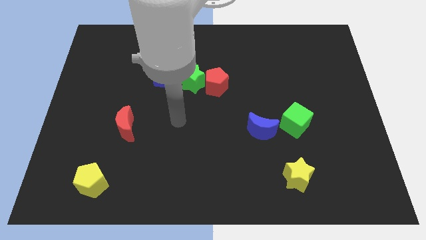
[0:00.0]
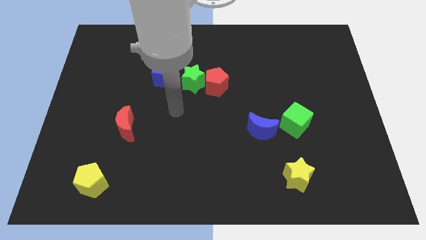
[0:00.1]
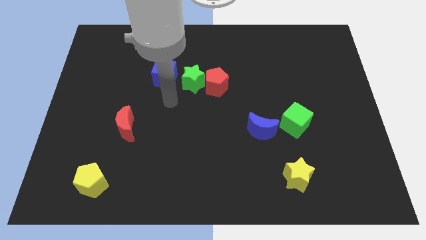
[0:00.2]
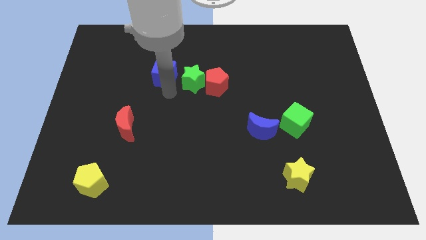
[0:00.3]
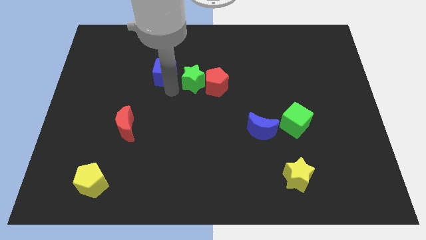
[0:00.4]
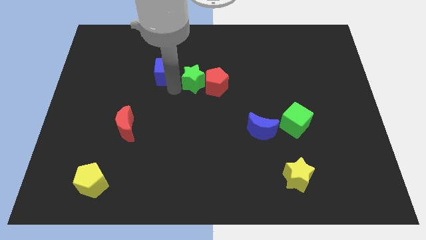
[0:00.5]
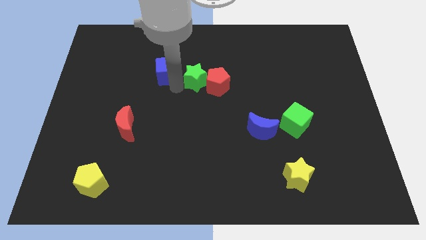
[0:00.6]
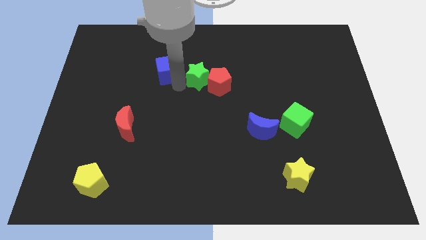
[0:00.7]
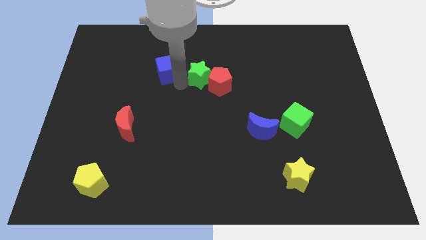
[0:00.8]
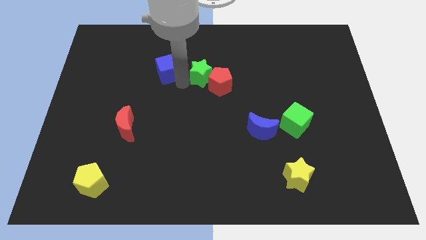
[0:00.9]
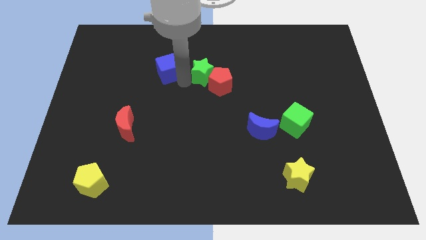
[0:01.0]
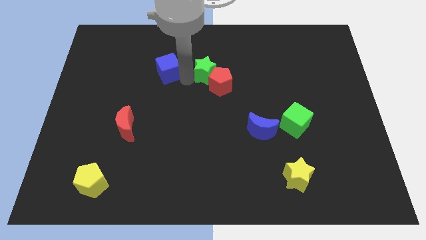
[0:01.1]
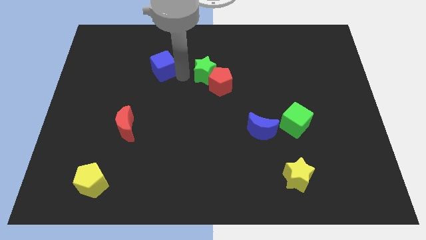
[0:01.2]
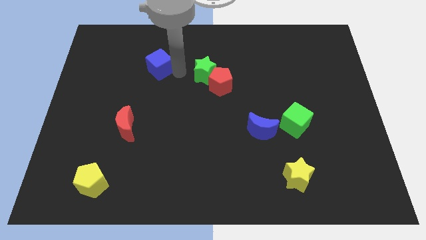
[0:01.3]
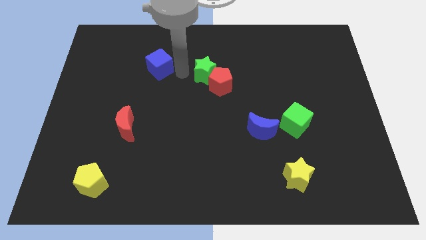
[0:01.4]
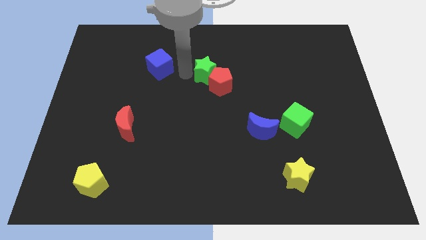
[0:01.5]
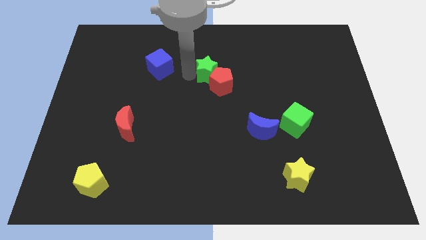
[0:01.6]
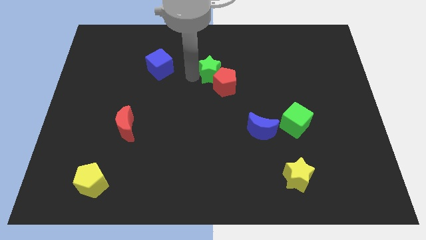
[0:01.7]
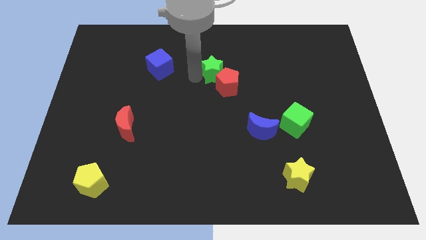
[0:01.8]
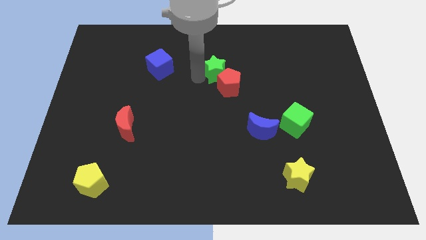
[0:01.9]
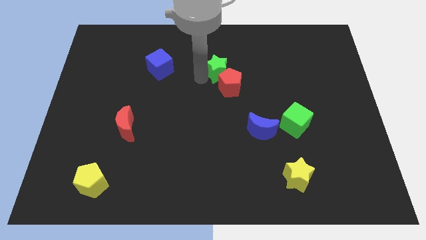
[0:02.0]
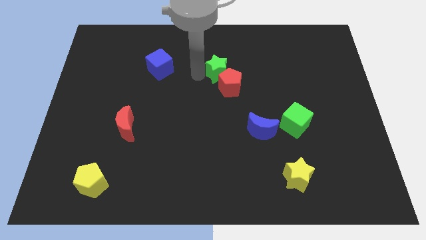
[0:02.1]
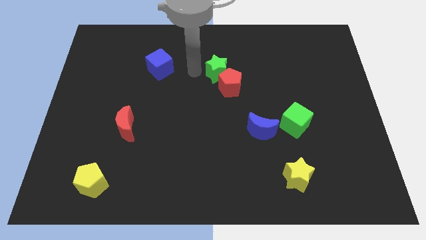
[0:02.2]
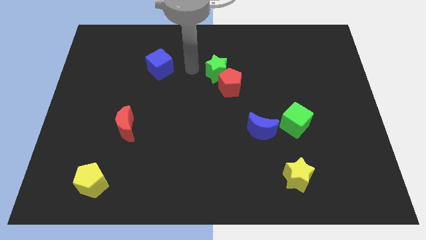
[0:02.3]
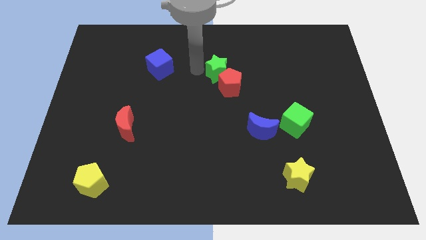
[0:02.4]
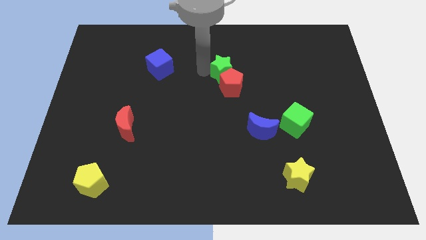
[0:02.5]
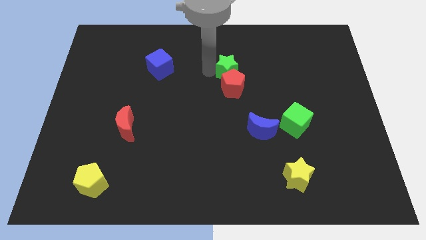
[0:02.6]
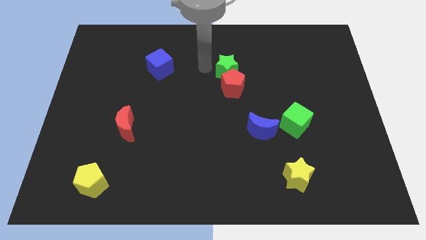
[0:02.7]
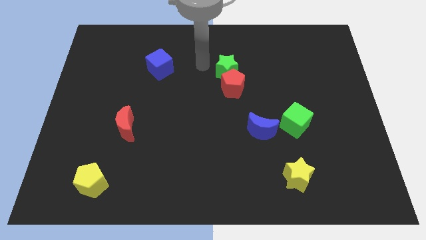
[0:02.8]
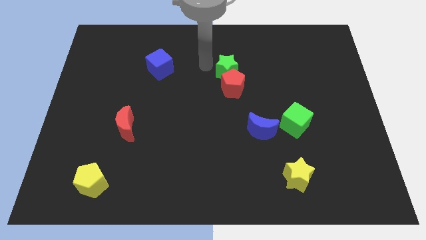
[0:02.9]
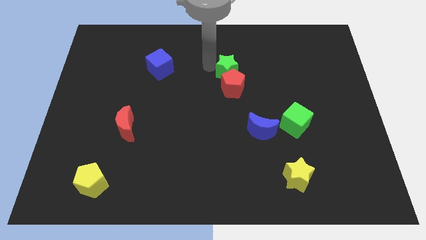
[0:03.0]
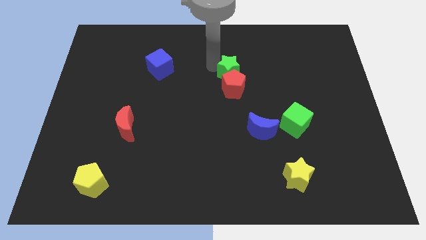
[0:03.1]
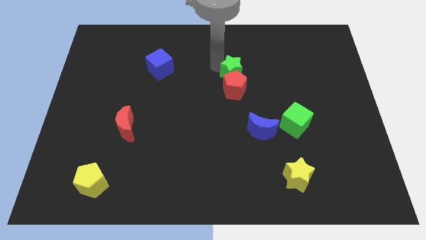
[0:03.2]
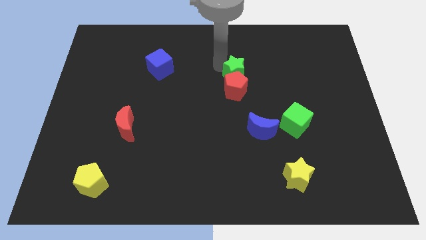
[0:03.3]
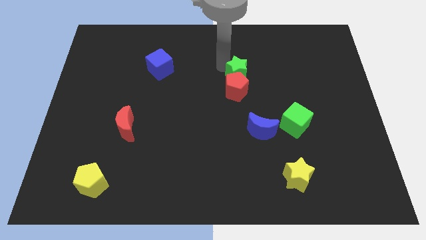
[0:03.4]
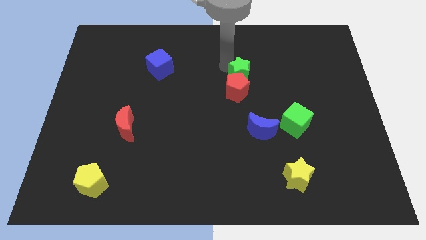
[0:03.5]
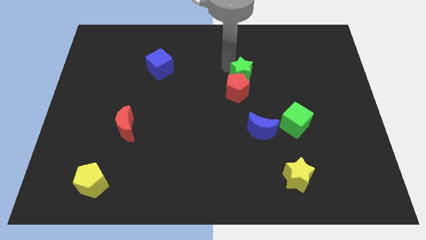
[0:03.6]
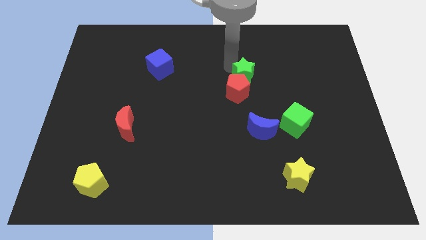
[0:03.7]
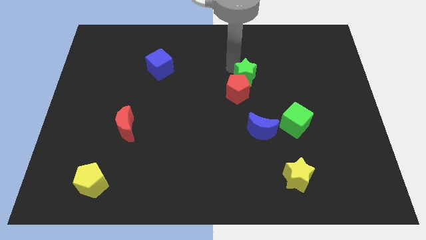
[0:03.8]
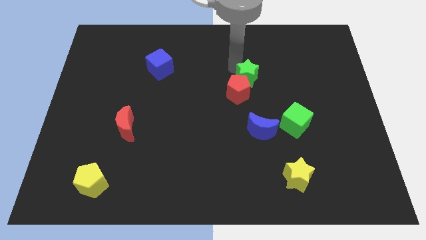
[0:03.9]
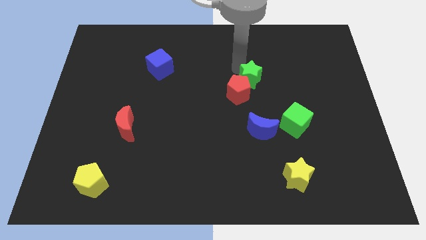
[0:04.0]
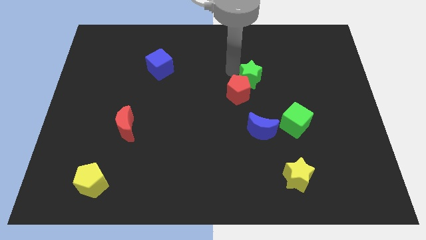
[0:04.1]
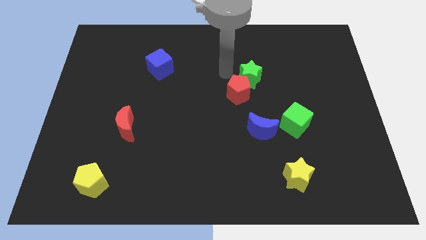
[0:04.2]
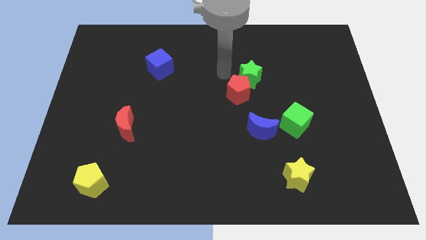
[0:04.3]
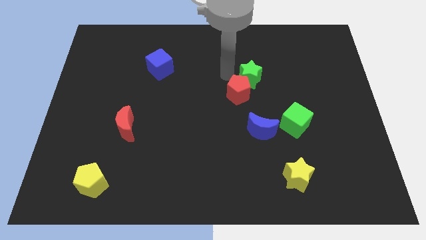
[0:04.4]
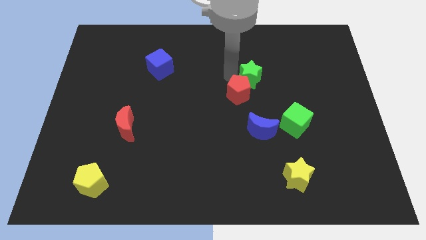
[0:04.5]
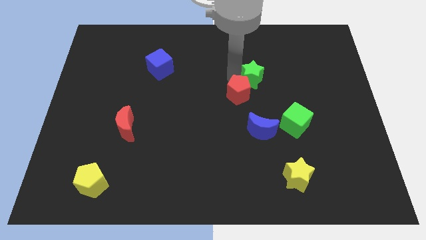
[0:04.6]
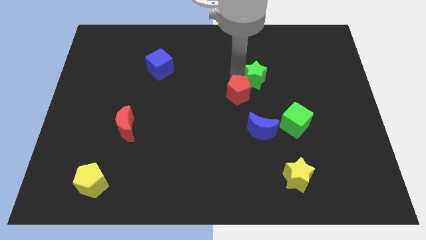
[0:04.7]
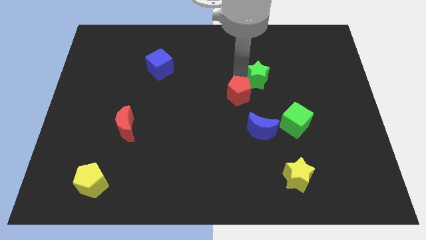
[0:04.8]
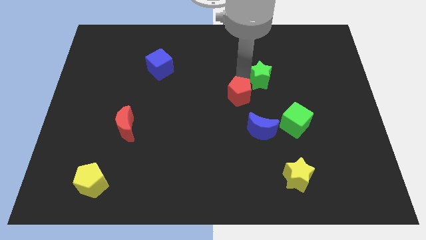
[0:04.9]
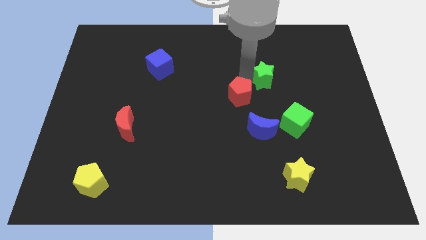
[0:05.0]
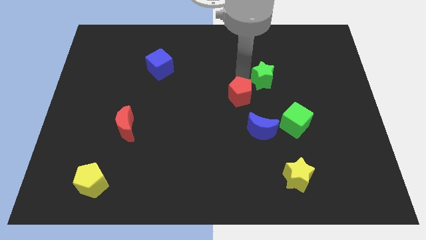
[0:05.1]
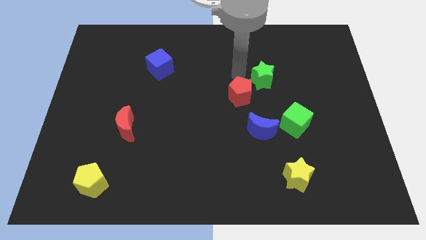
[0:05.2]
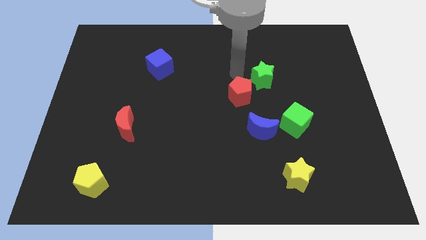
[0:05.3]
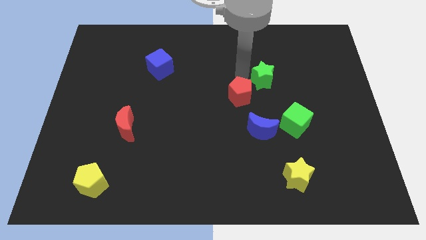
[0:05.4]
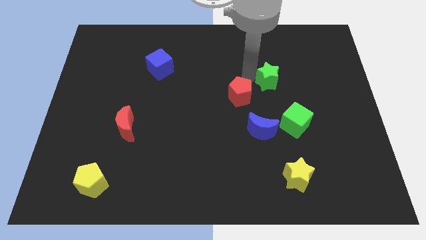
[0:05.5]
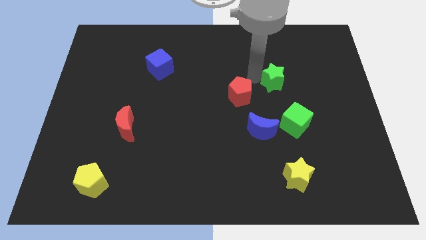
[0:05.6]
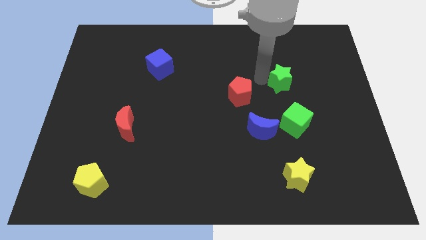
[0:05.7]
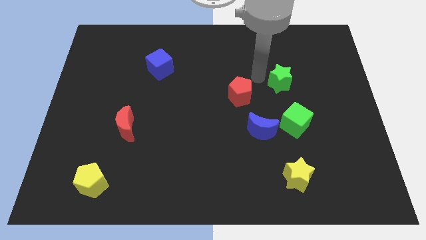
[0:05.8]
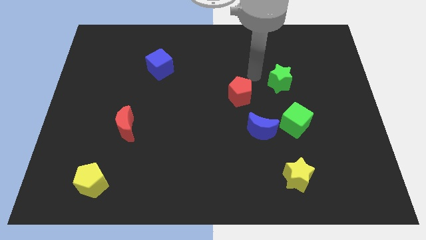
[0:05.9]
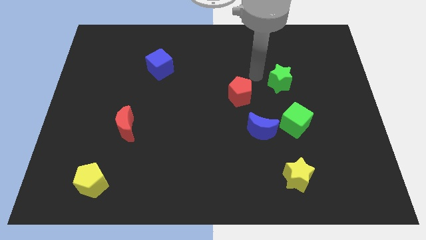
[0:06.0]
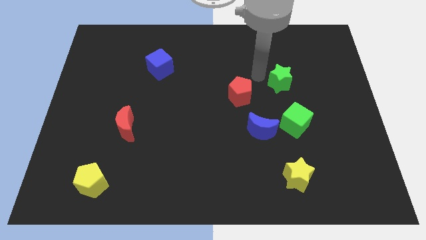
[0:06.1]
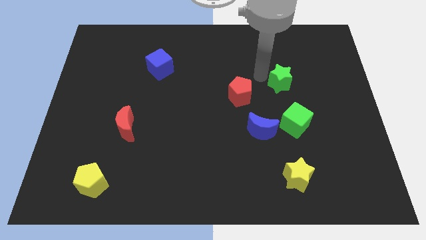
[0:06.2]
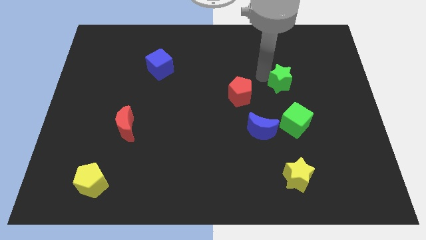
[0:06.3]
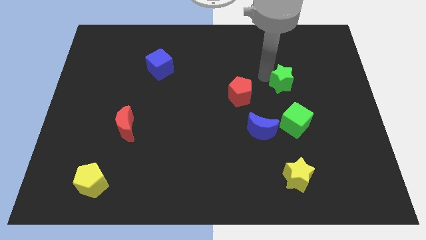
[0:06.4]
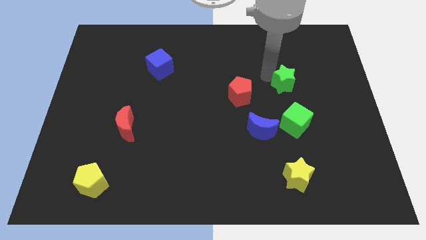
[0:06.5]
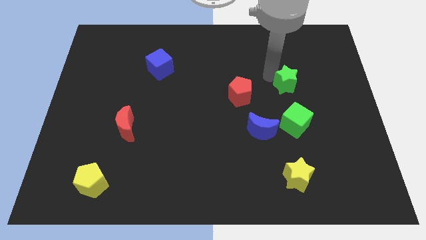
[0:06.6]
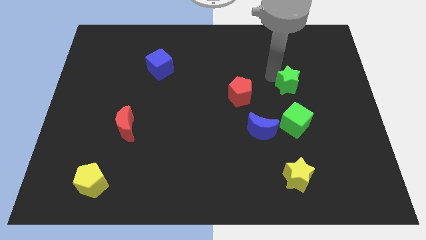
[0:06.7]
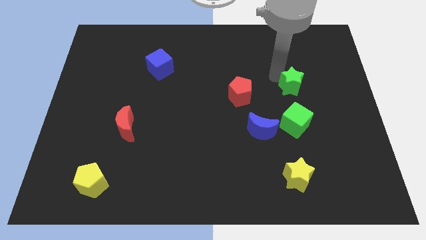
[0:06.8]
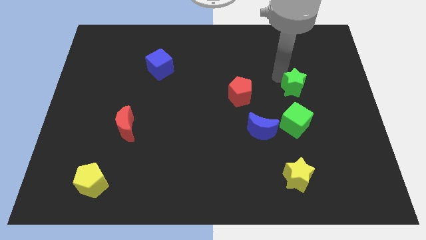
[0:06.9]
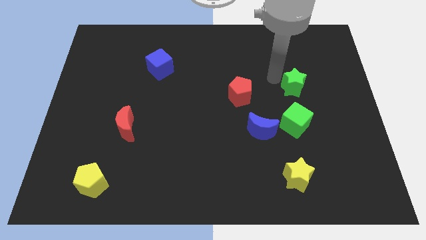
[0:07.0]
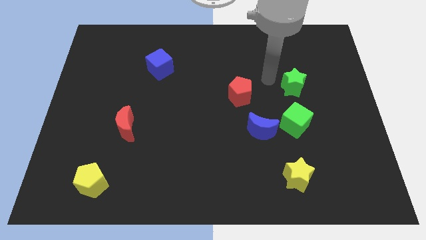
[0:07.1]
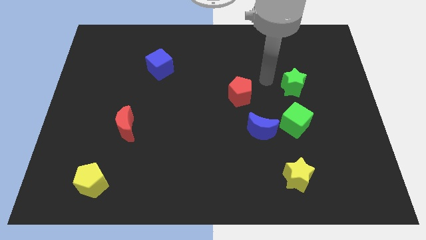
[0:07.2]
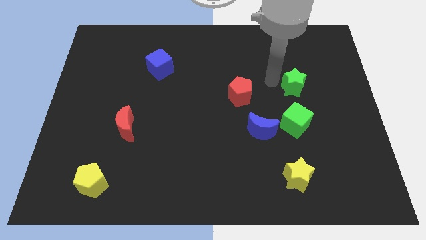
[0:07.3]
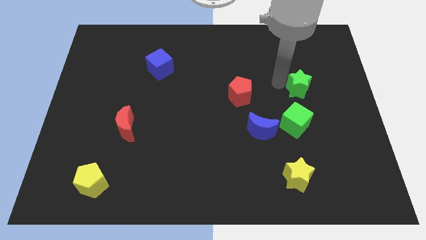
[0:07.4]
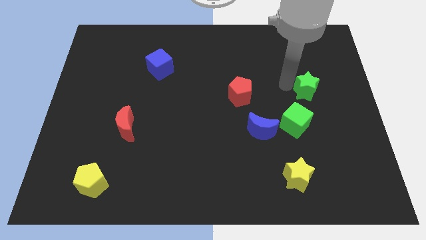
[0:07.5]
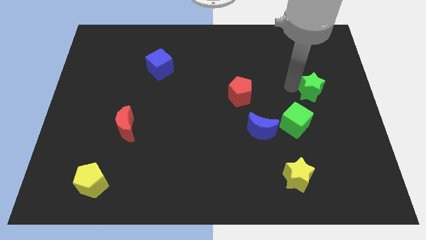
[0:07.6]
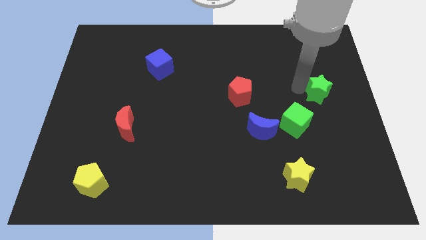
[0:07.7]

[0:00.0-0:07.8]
move the green star to the right side
